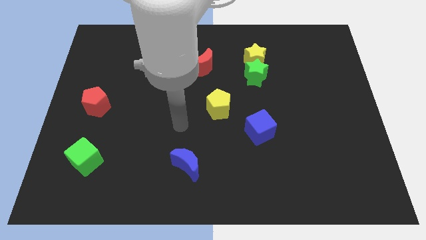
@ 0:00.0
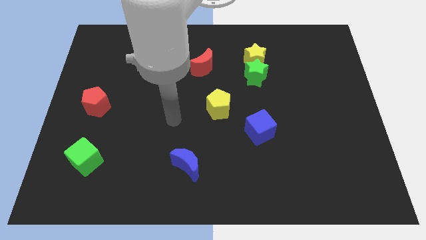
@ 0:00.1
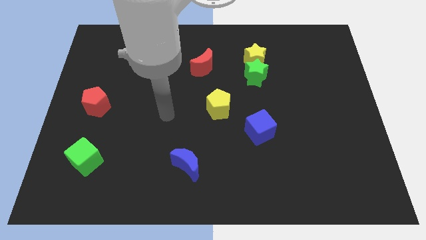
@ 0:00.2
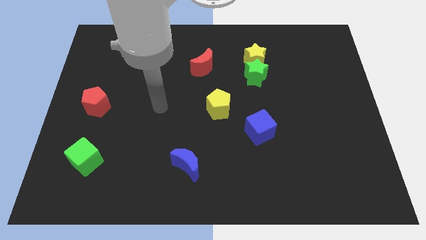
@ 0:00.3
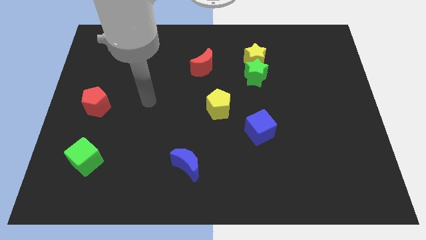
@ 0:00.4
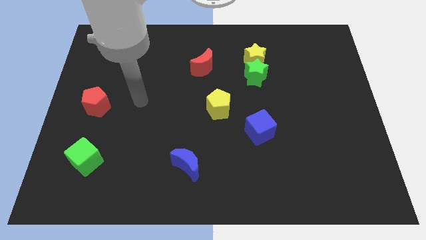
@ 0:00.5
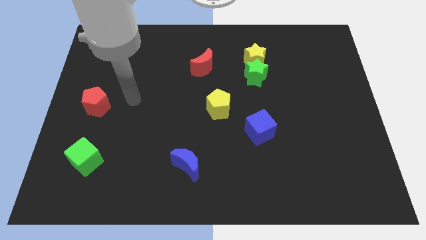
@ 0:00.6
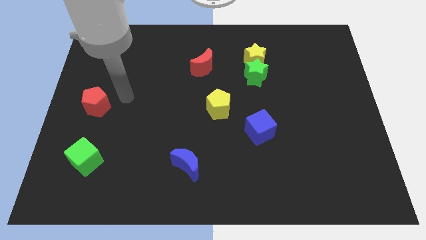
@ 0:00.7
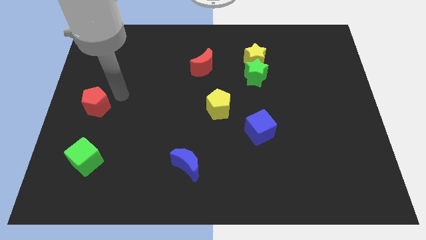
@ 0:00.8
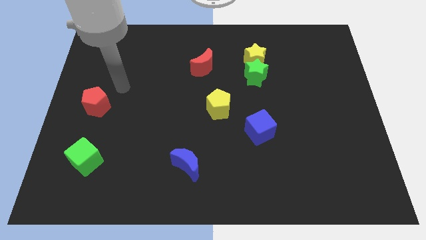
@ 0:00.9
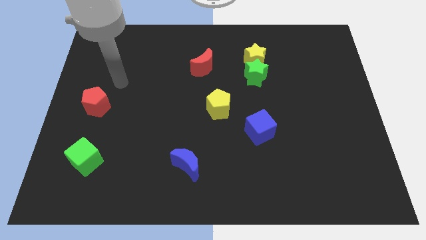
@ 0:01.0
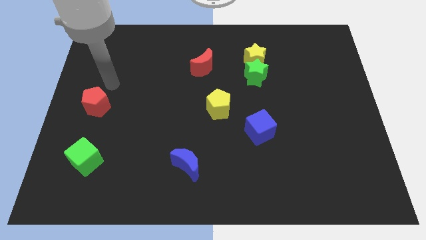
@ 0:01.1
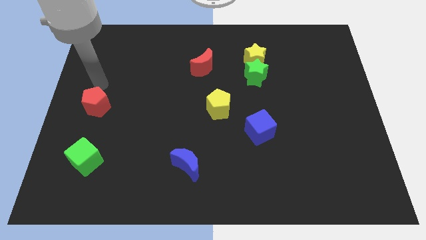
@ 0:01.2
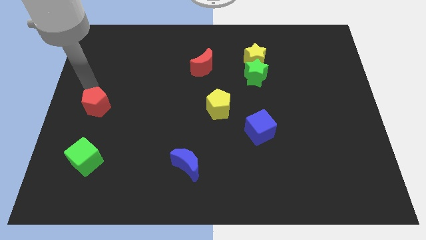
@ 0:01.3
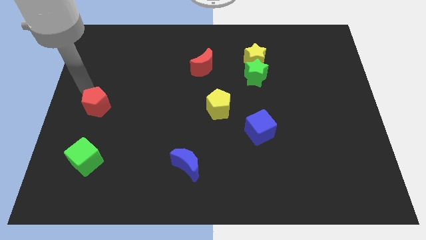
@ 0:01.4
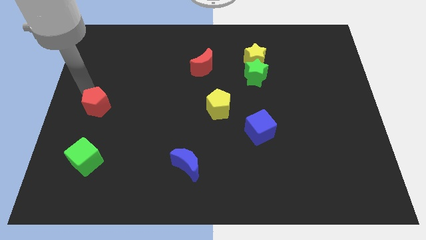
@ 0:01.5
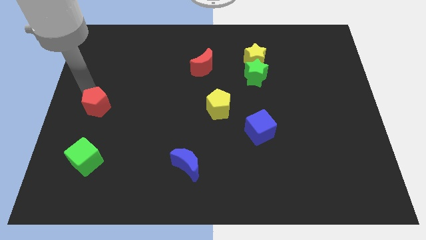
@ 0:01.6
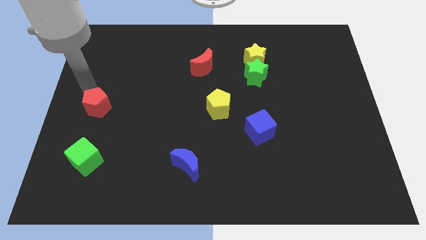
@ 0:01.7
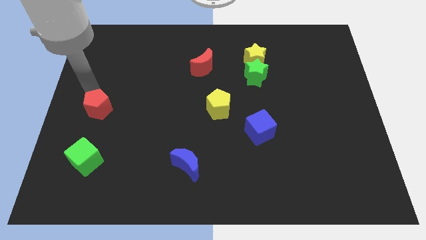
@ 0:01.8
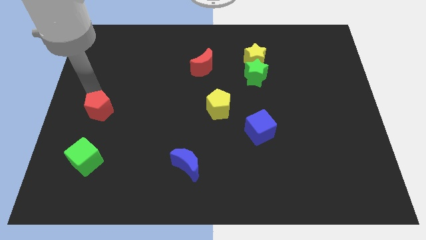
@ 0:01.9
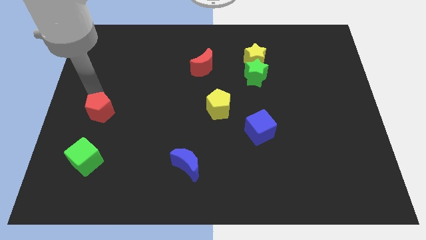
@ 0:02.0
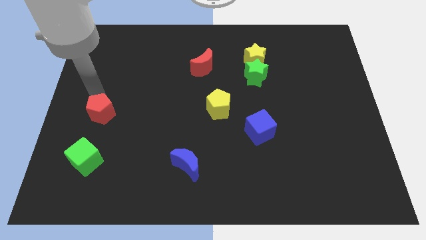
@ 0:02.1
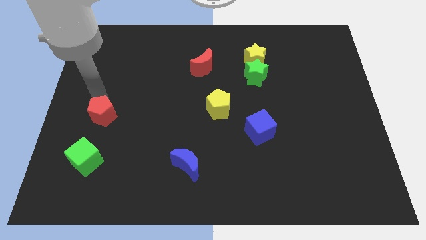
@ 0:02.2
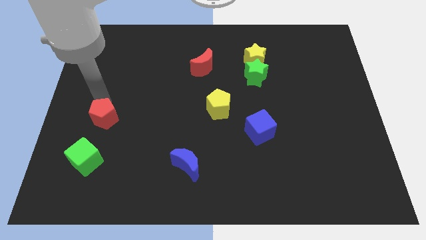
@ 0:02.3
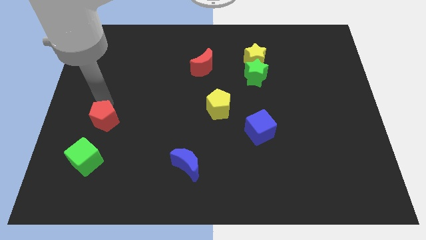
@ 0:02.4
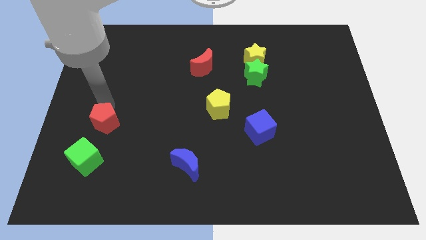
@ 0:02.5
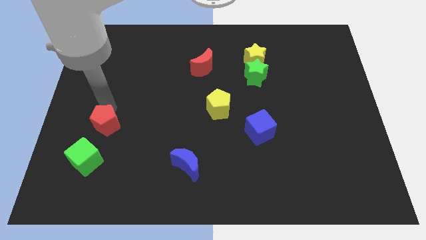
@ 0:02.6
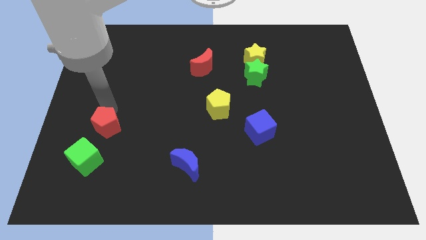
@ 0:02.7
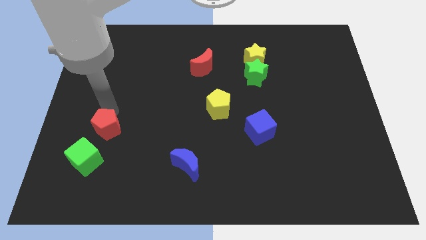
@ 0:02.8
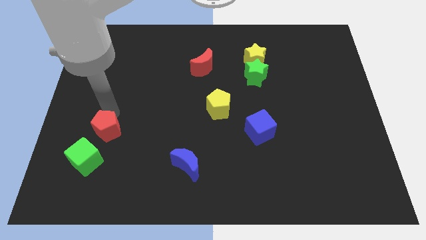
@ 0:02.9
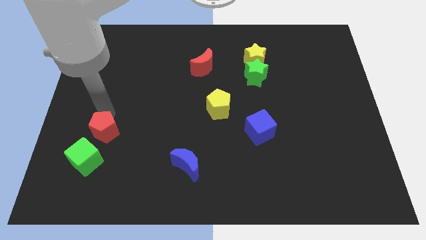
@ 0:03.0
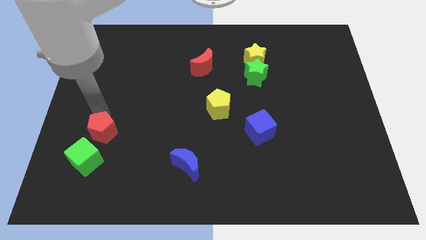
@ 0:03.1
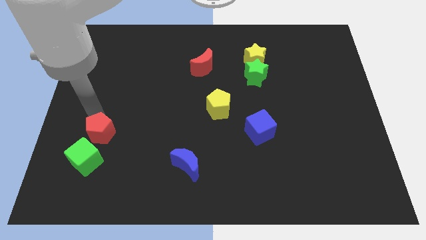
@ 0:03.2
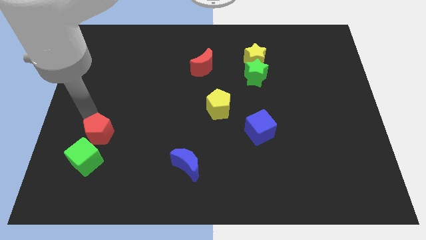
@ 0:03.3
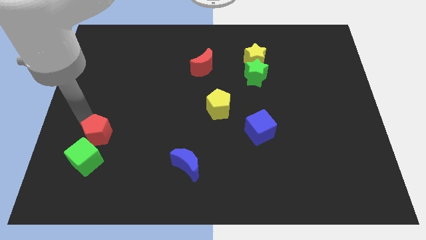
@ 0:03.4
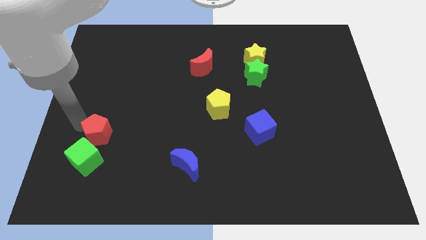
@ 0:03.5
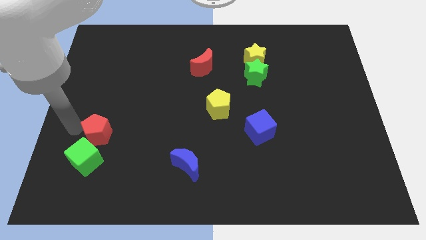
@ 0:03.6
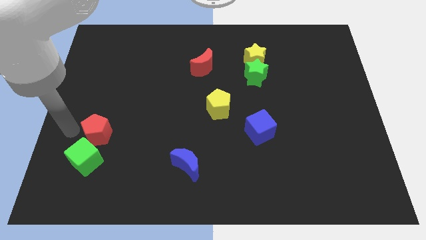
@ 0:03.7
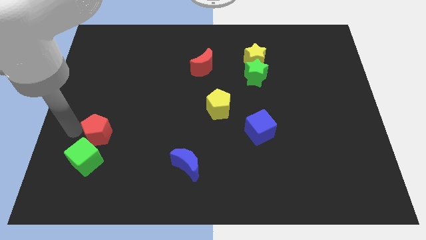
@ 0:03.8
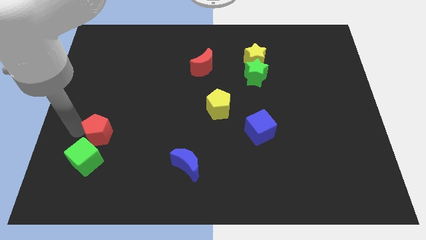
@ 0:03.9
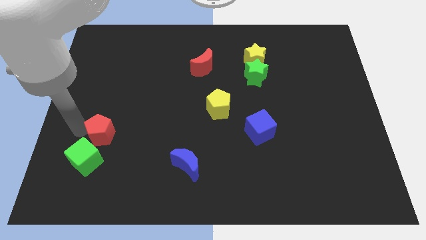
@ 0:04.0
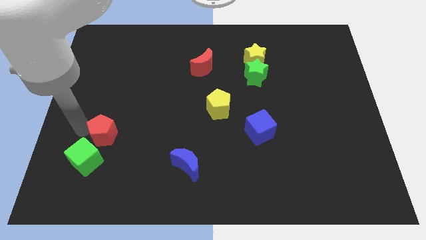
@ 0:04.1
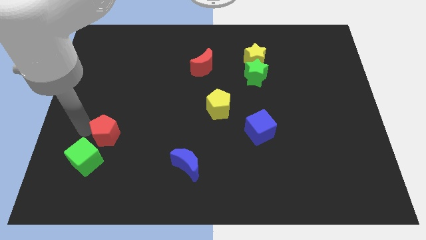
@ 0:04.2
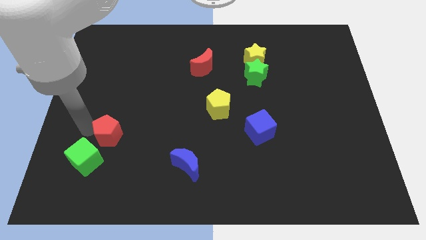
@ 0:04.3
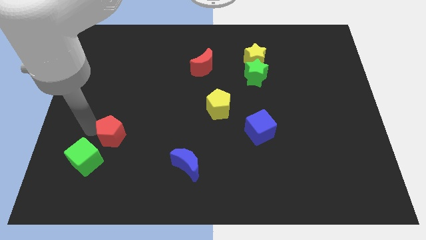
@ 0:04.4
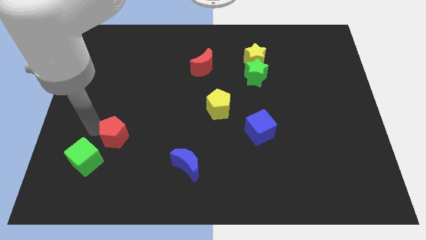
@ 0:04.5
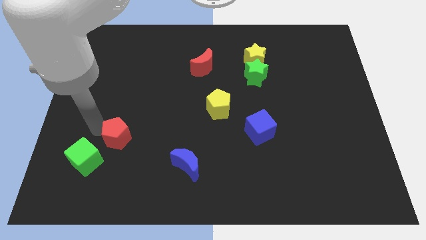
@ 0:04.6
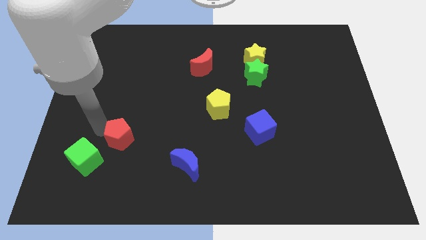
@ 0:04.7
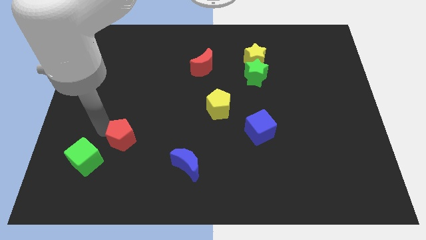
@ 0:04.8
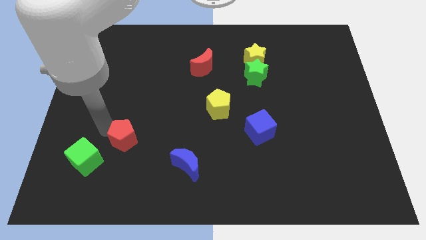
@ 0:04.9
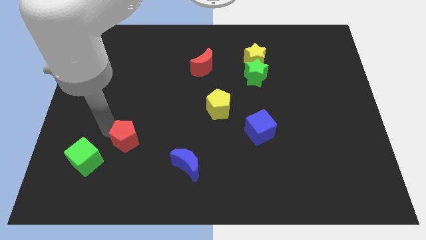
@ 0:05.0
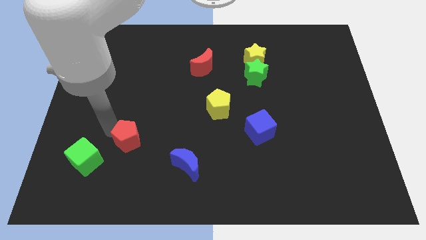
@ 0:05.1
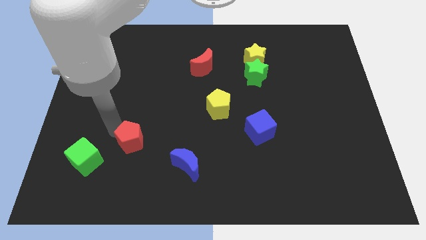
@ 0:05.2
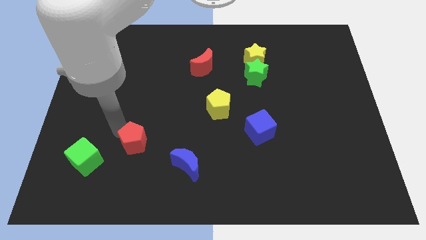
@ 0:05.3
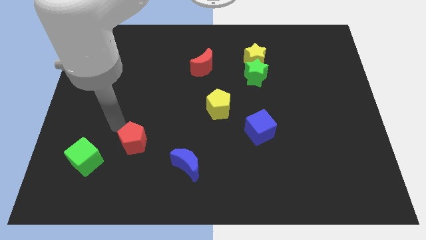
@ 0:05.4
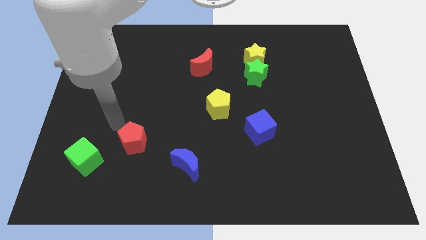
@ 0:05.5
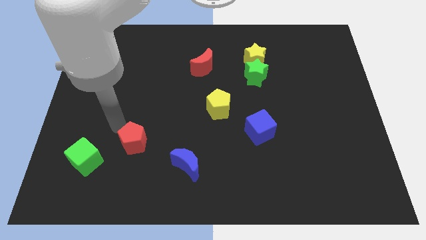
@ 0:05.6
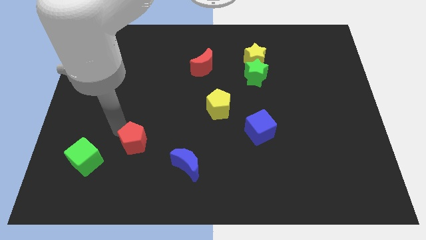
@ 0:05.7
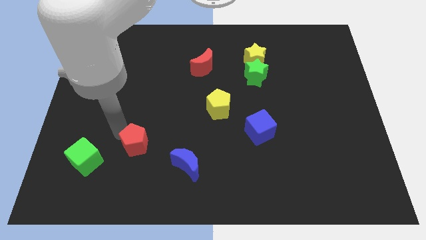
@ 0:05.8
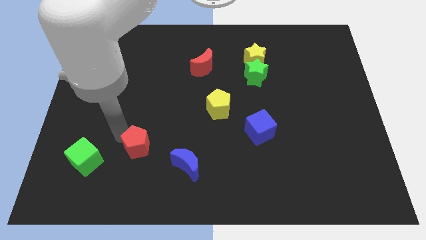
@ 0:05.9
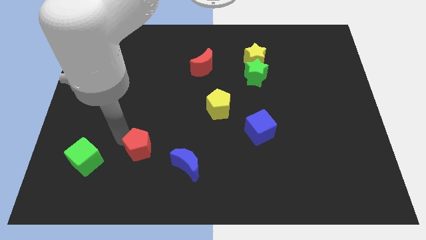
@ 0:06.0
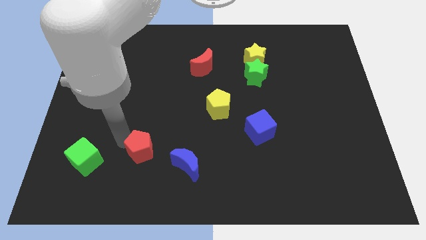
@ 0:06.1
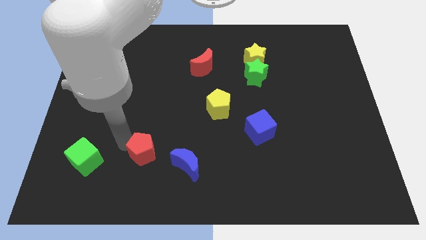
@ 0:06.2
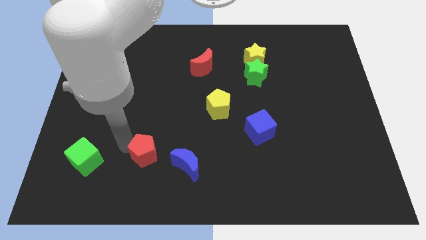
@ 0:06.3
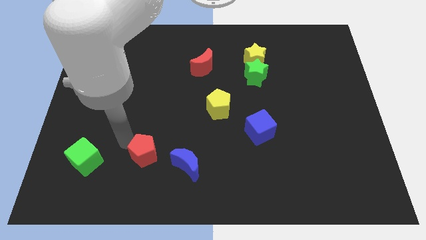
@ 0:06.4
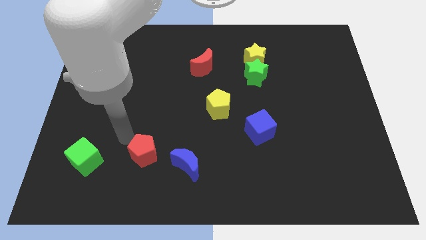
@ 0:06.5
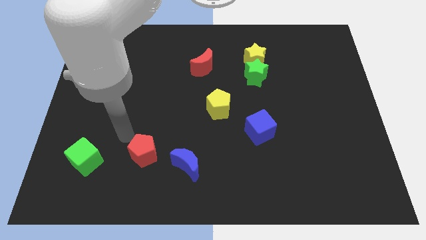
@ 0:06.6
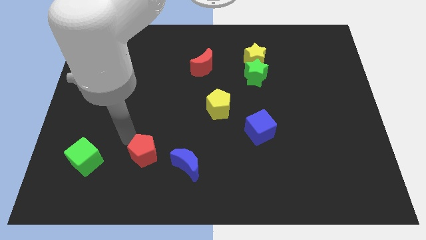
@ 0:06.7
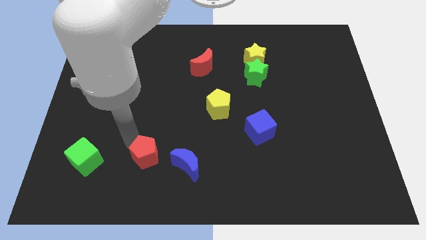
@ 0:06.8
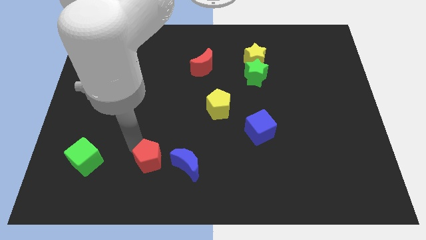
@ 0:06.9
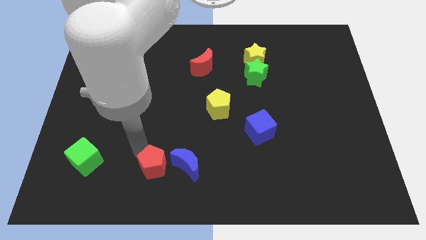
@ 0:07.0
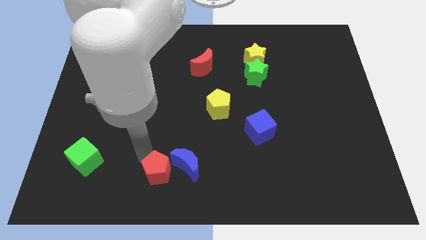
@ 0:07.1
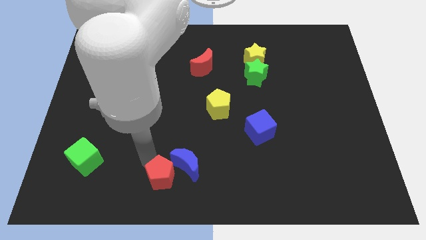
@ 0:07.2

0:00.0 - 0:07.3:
put the red pentagon to the bottom
